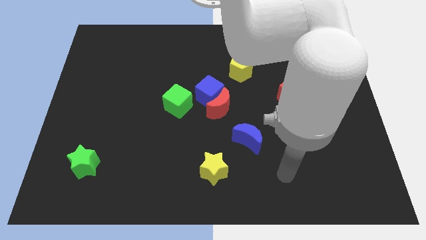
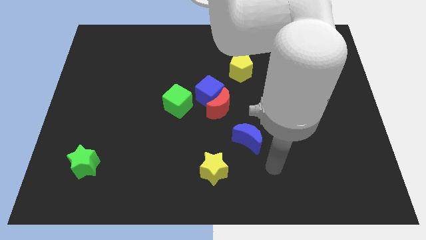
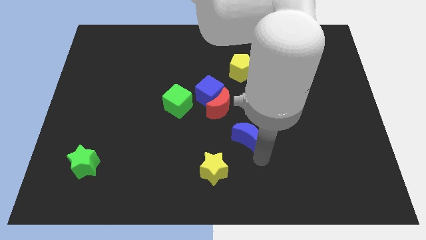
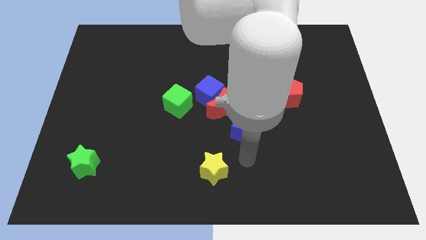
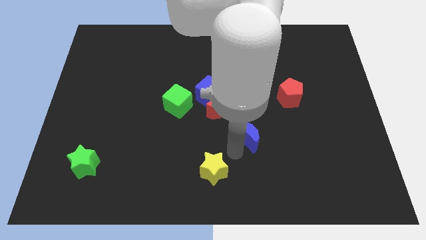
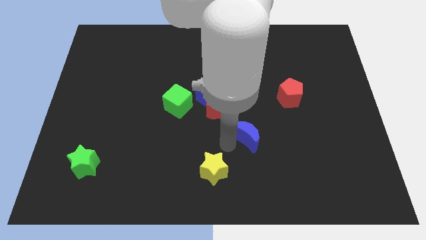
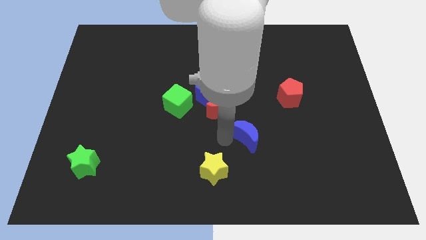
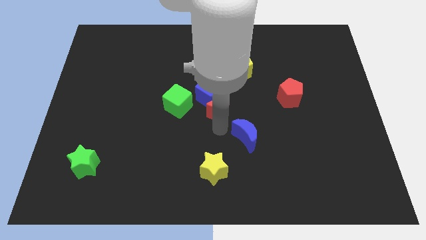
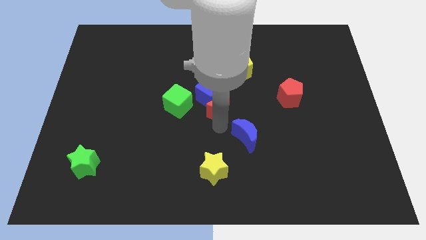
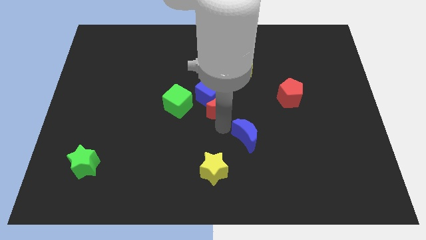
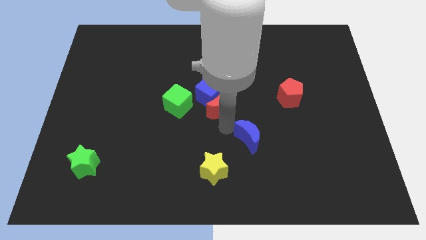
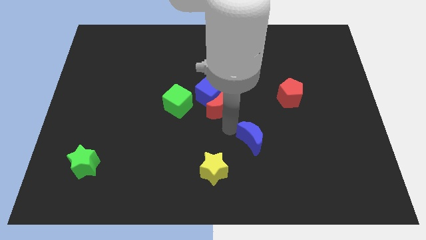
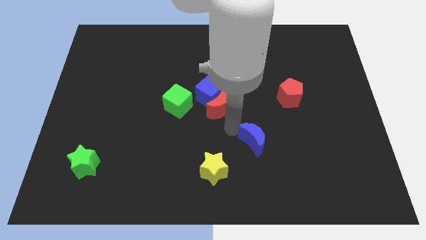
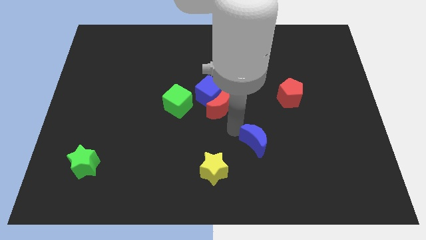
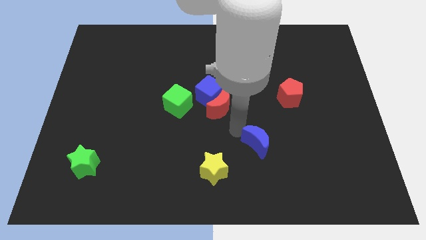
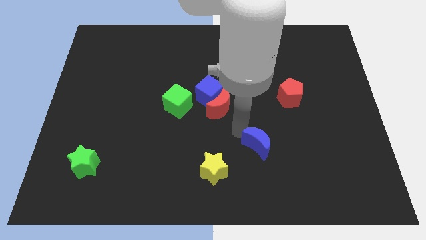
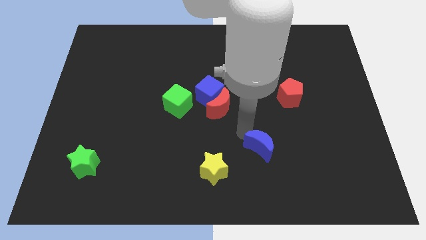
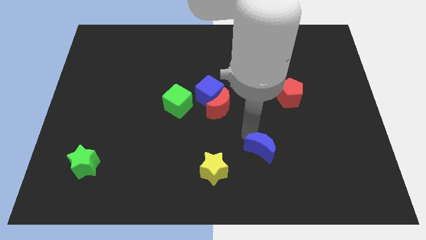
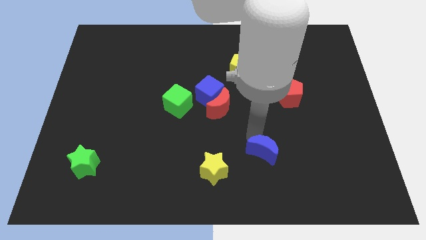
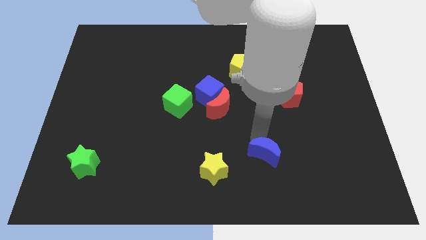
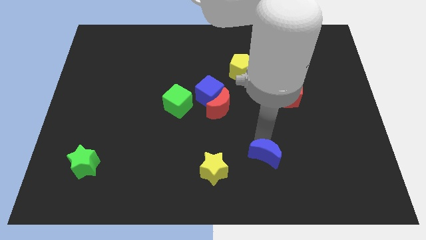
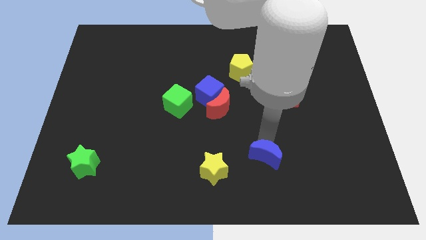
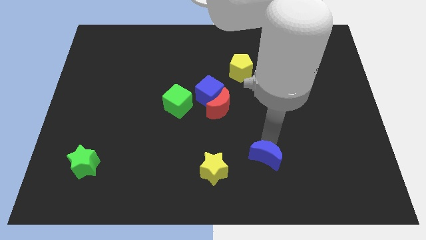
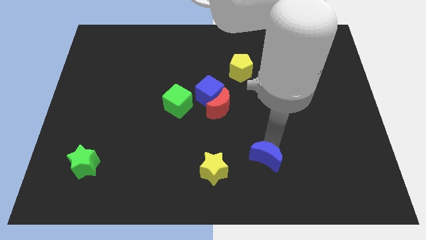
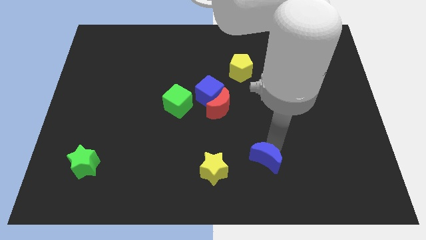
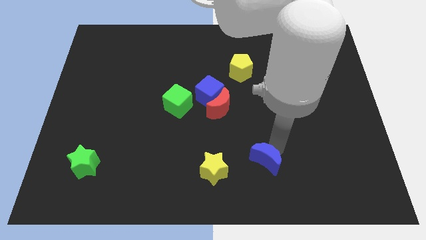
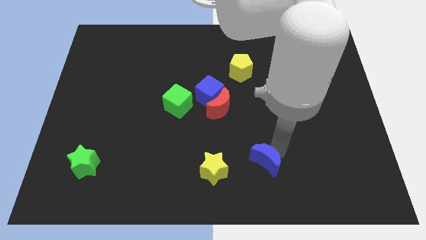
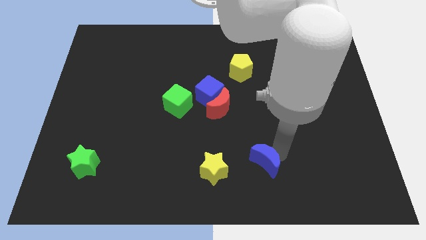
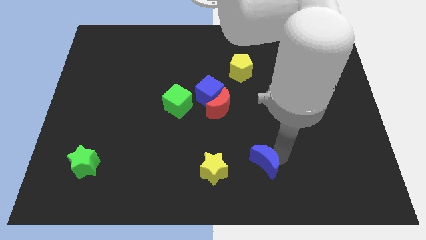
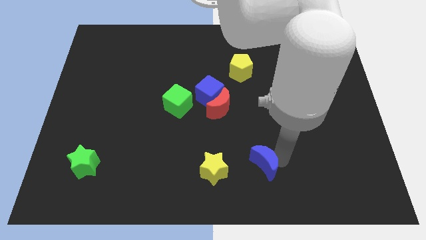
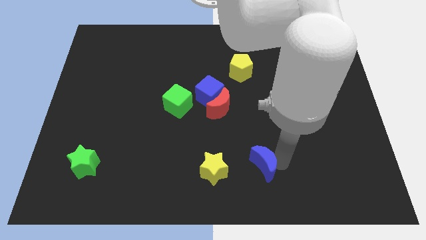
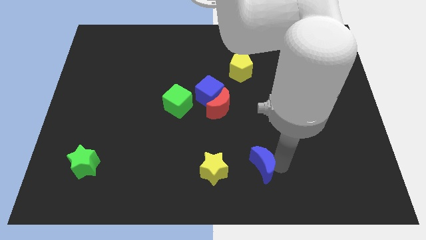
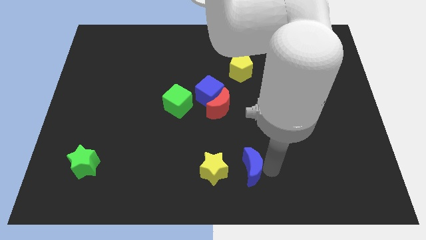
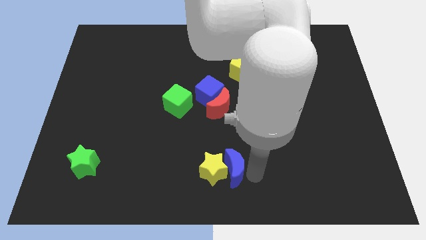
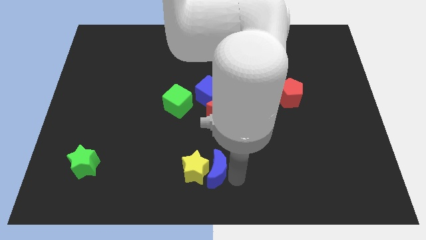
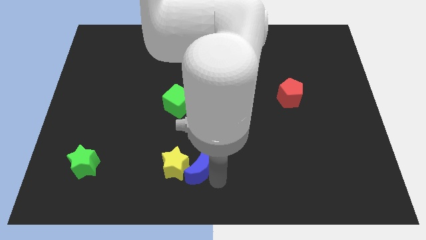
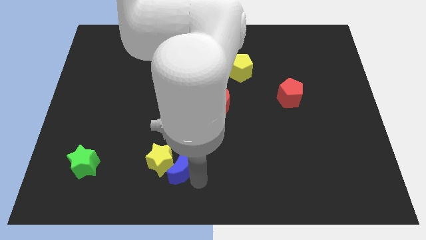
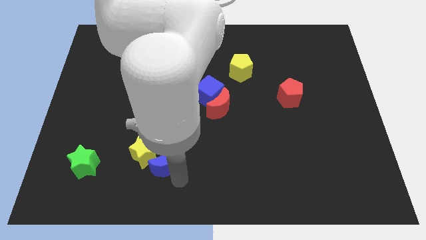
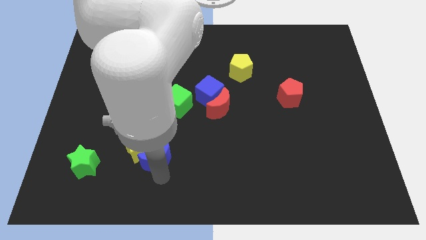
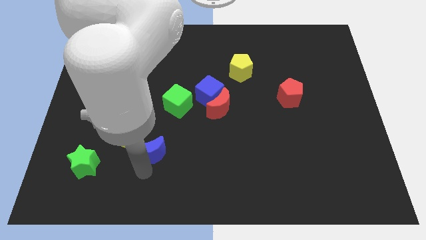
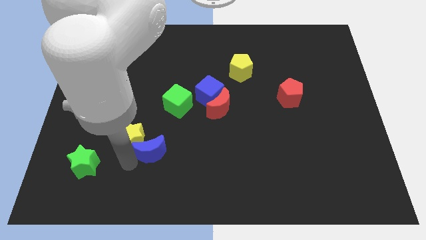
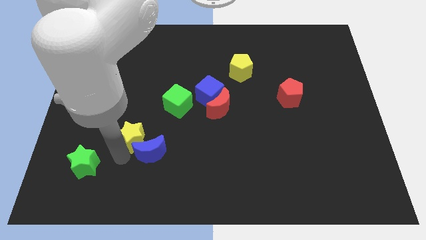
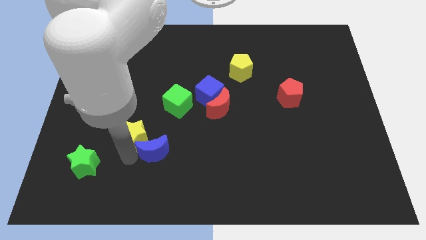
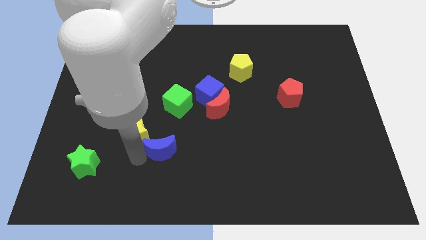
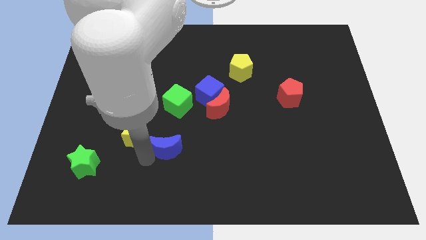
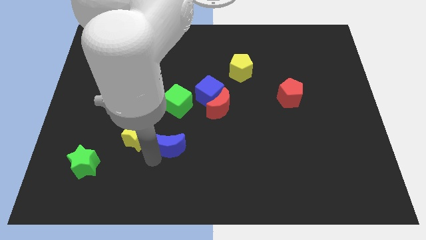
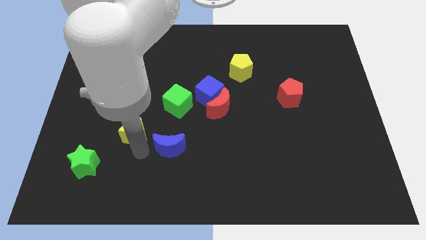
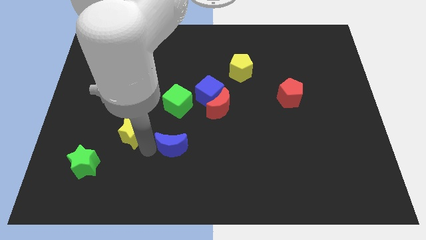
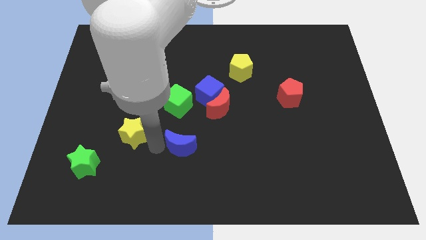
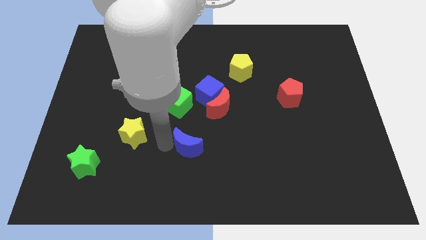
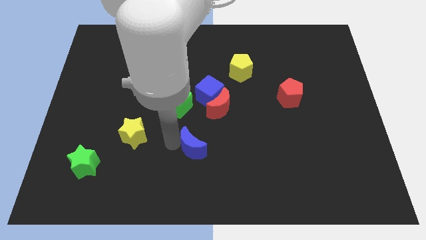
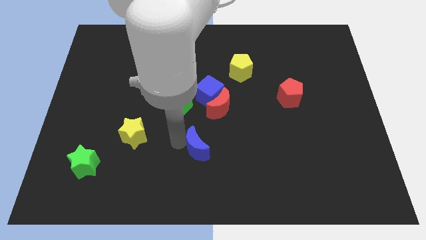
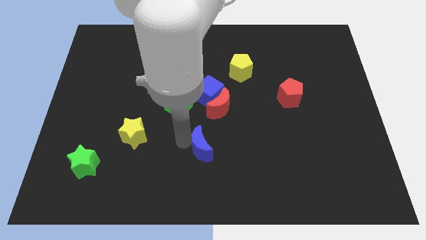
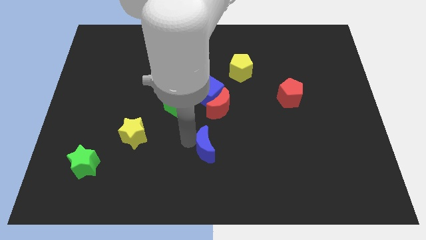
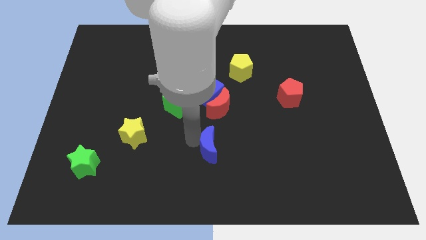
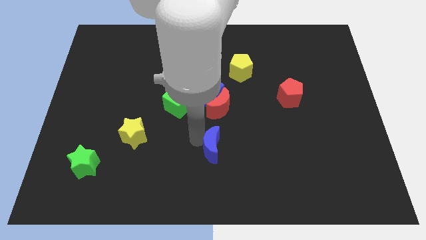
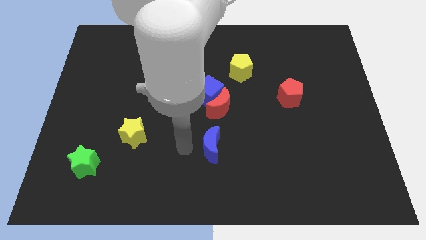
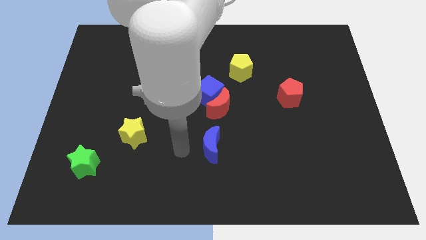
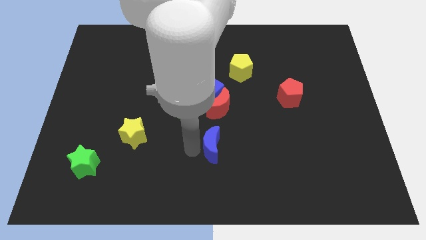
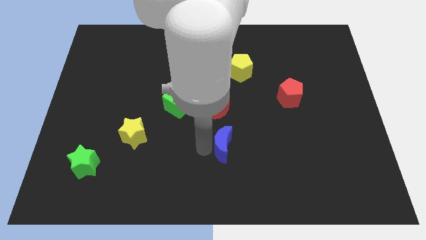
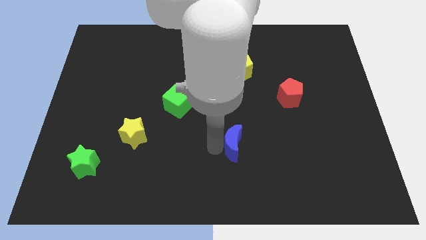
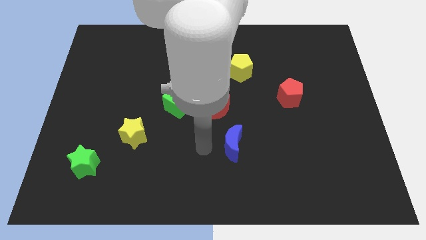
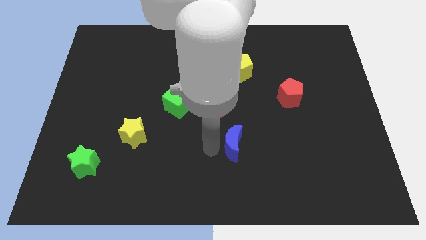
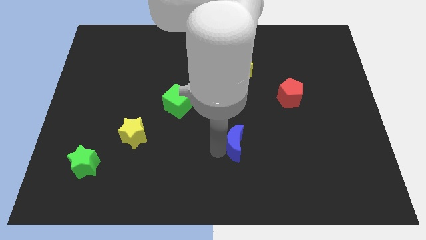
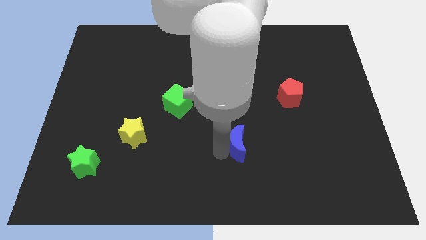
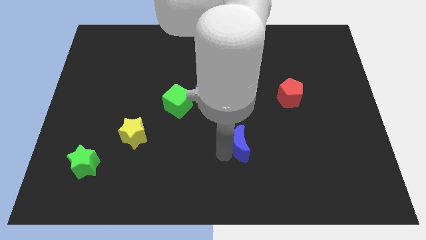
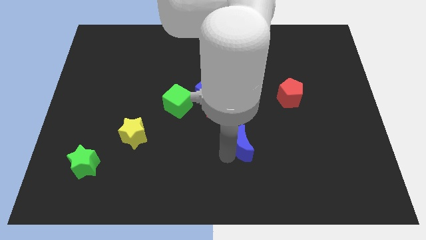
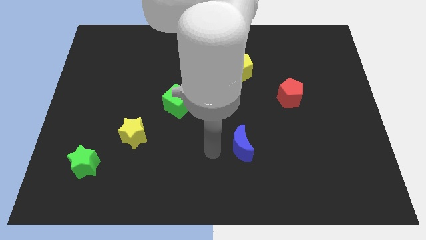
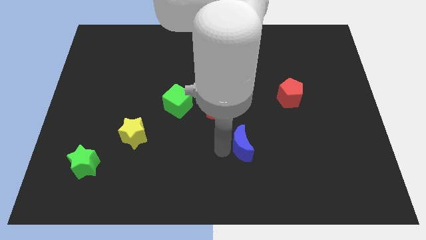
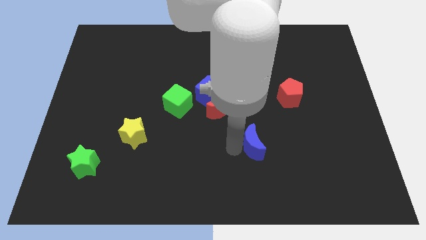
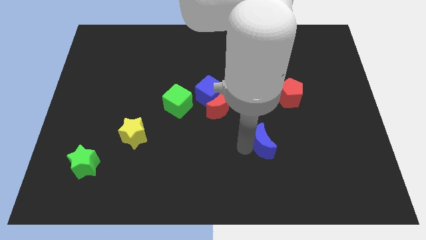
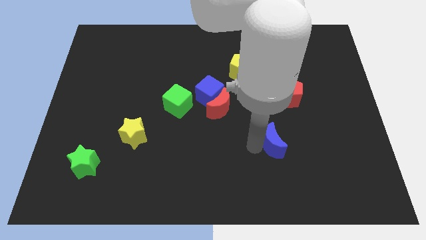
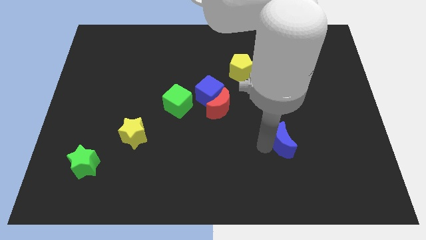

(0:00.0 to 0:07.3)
push the blue moon somewhat right

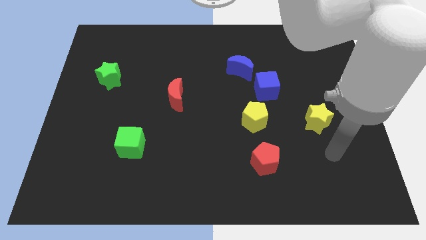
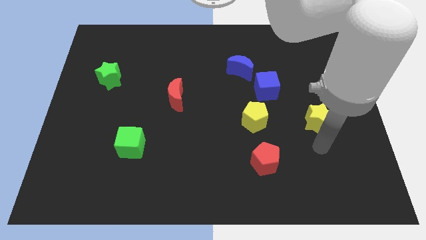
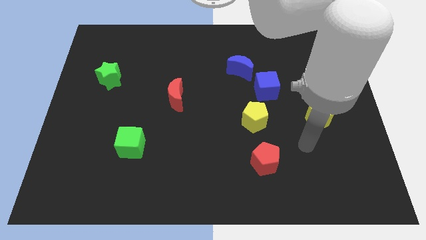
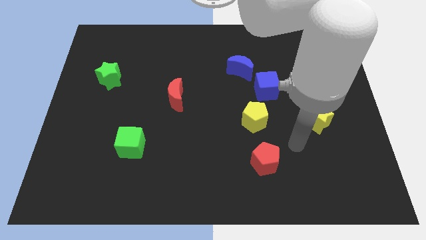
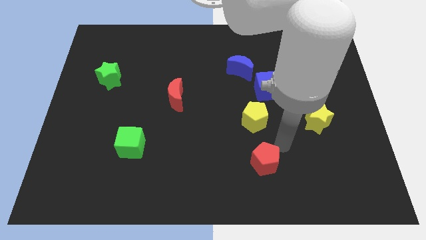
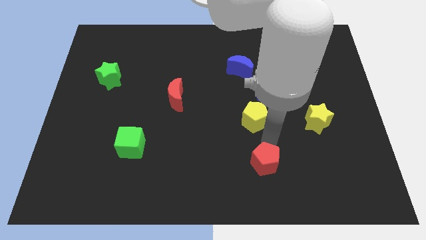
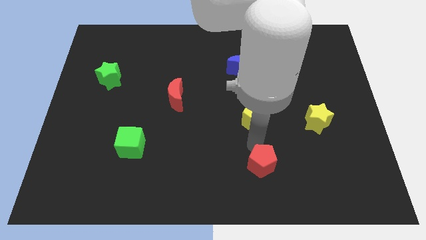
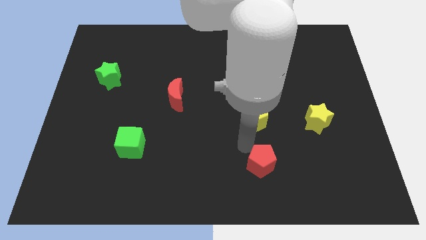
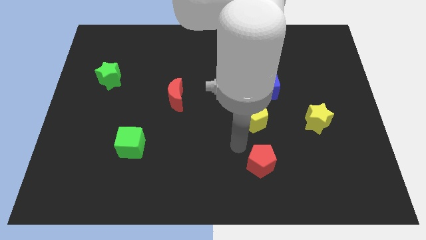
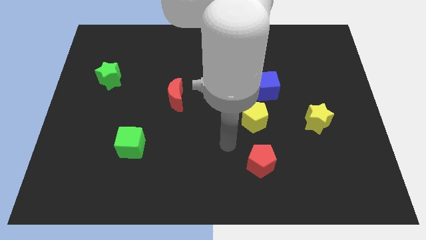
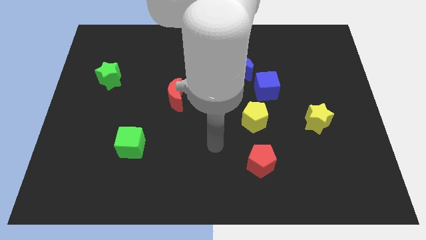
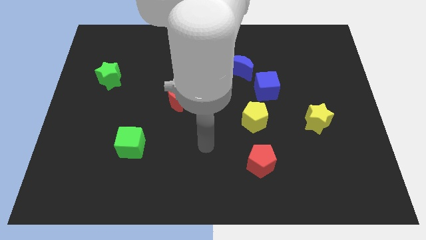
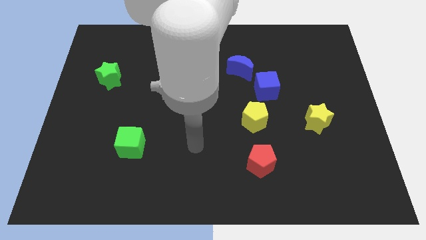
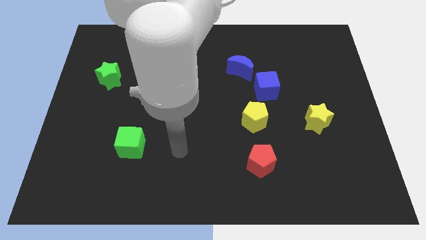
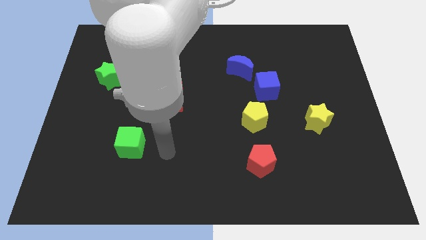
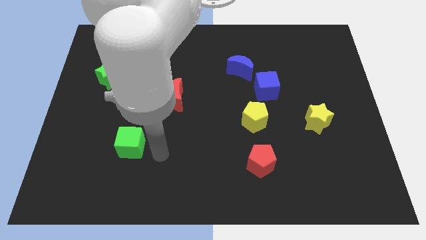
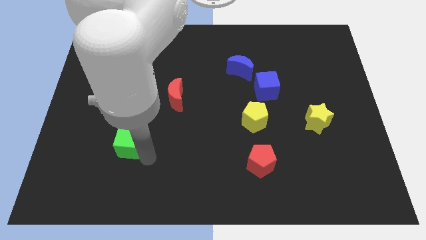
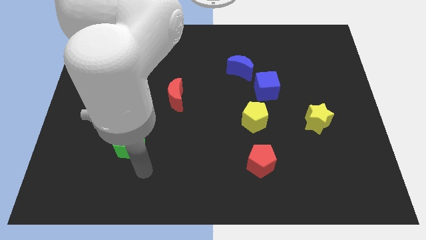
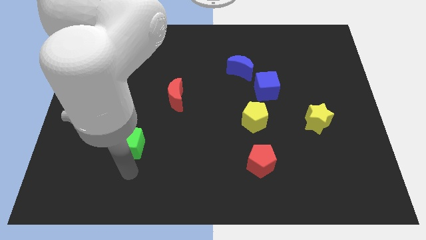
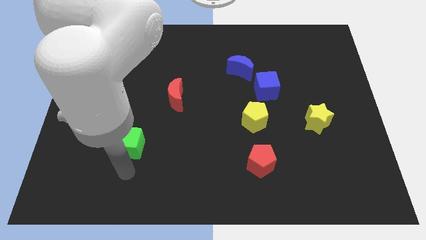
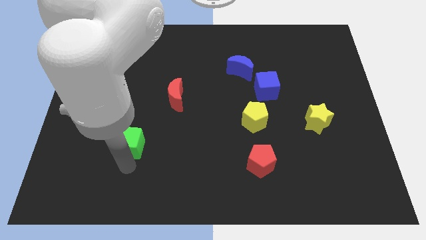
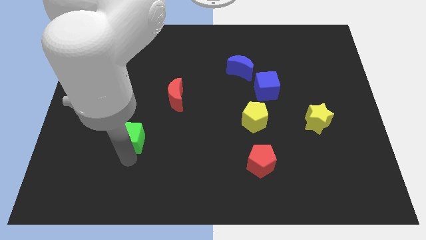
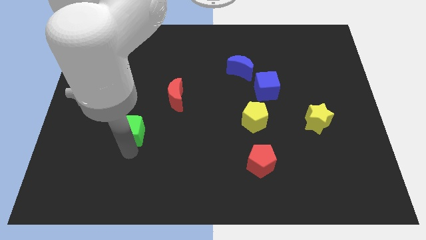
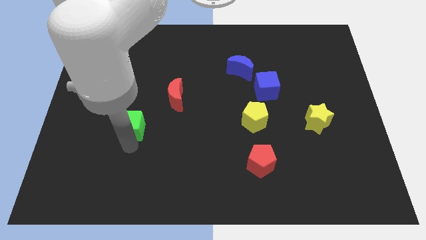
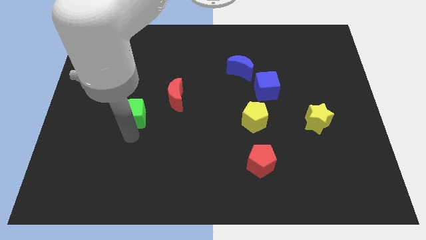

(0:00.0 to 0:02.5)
slightly move the green cube up
